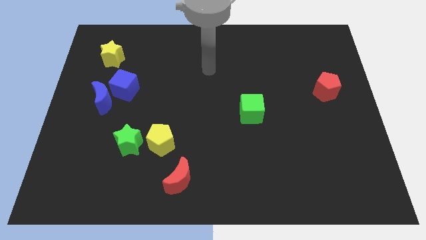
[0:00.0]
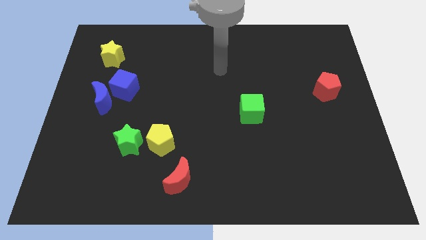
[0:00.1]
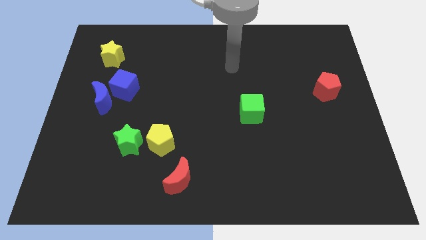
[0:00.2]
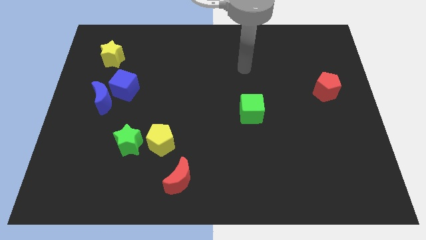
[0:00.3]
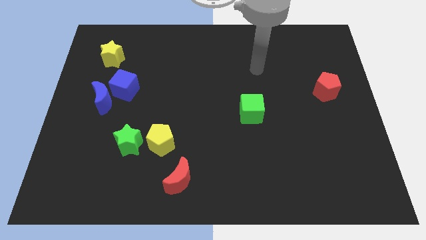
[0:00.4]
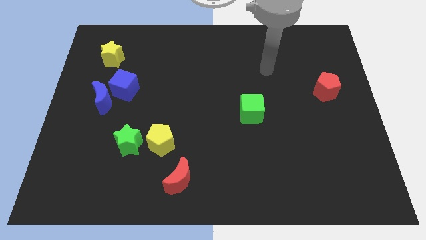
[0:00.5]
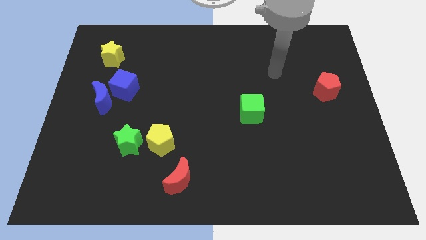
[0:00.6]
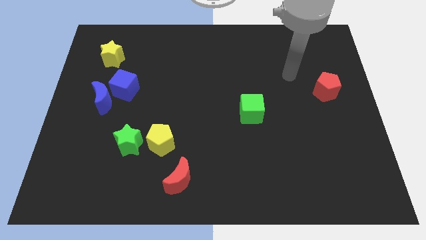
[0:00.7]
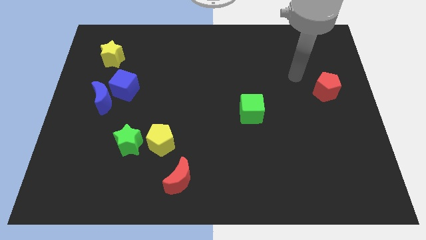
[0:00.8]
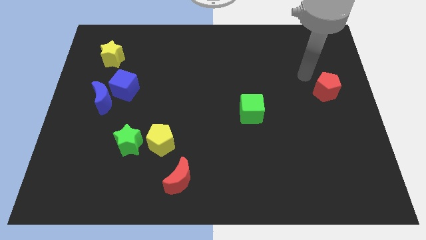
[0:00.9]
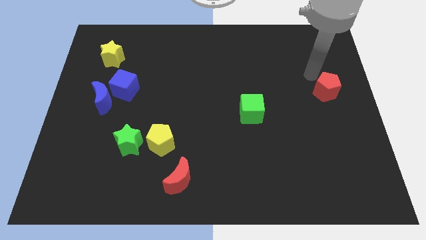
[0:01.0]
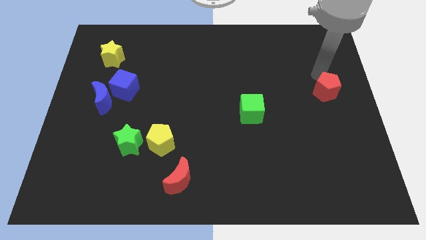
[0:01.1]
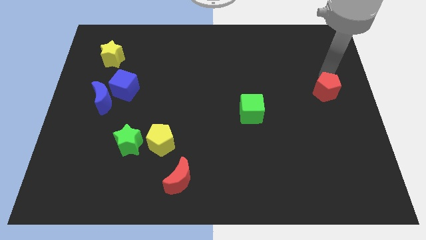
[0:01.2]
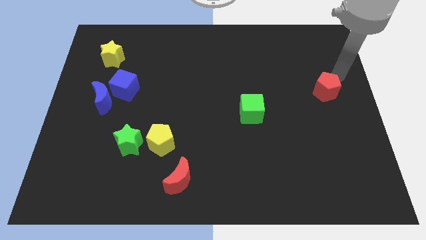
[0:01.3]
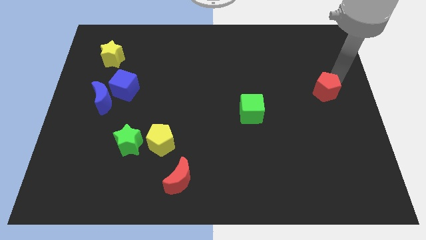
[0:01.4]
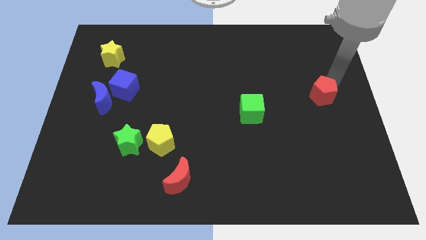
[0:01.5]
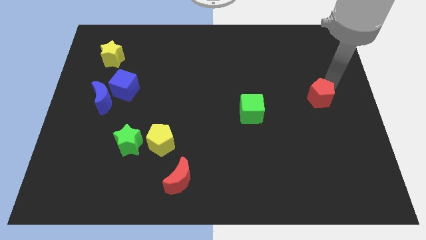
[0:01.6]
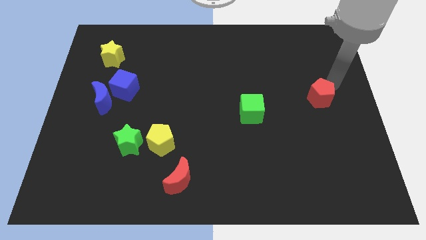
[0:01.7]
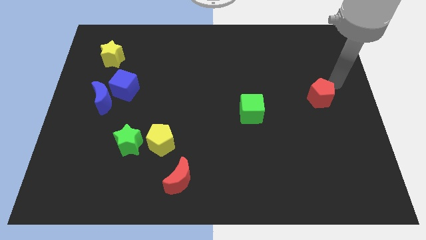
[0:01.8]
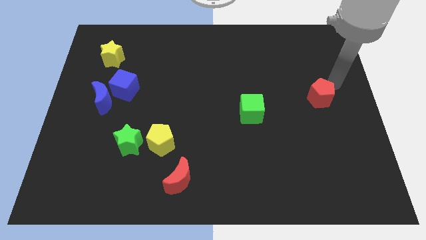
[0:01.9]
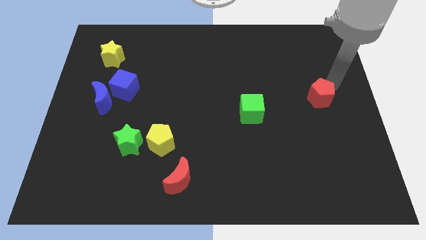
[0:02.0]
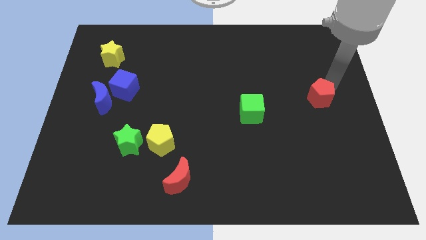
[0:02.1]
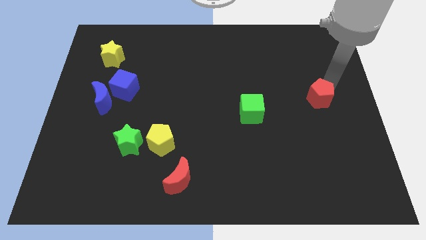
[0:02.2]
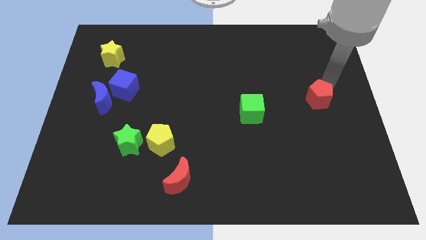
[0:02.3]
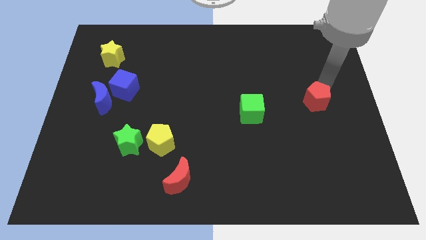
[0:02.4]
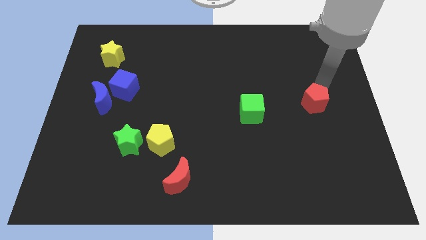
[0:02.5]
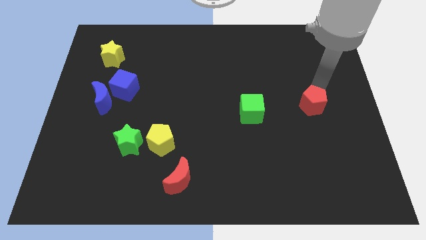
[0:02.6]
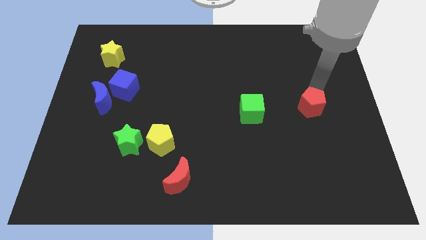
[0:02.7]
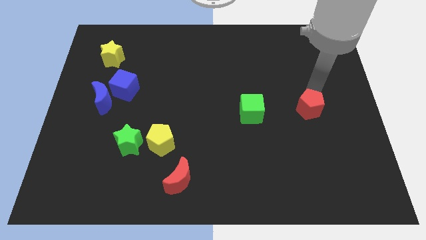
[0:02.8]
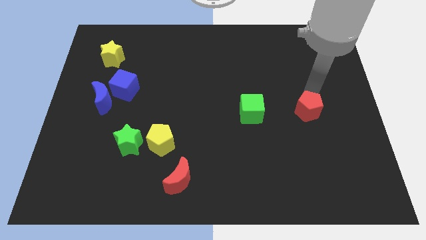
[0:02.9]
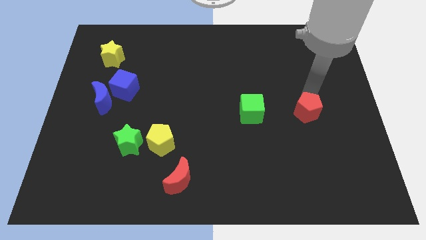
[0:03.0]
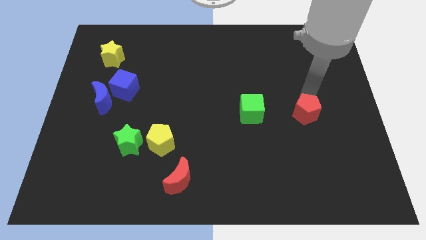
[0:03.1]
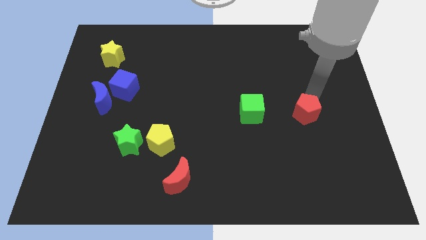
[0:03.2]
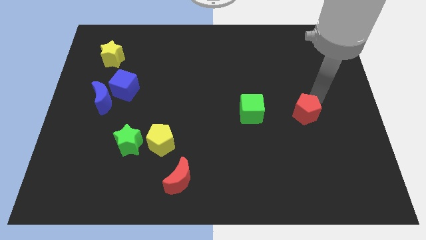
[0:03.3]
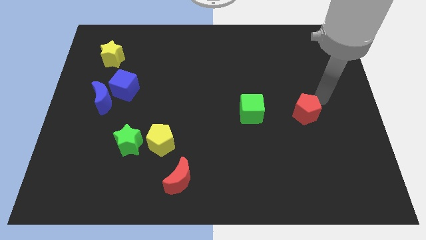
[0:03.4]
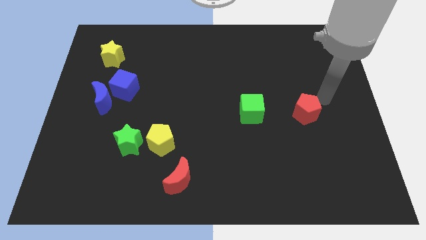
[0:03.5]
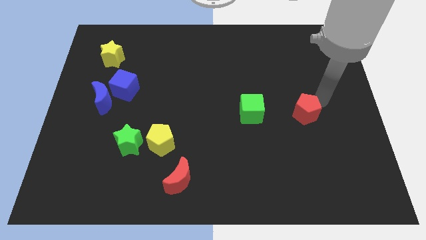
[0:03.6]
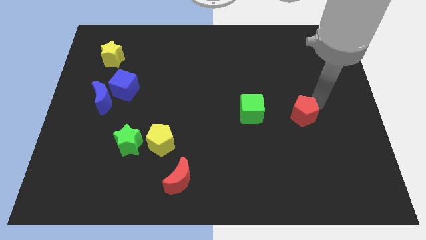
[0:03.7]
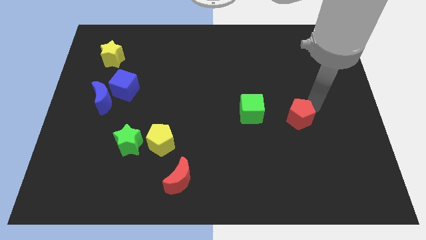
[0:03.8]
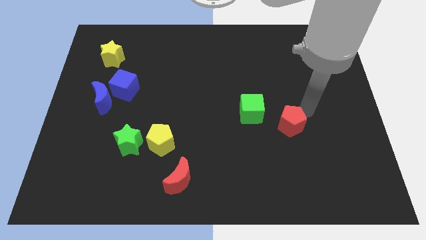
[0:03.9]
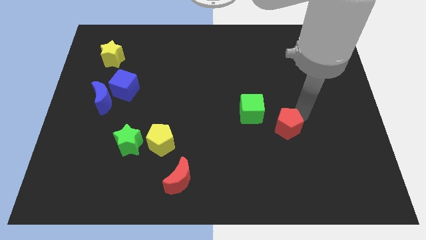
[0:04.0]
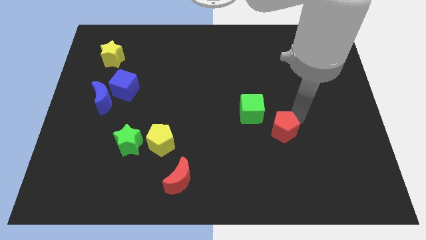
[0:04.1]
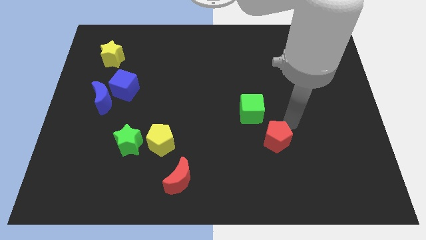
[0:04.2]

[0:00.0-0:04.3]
move the red pentagon down and then left

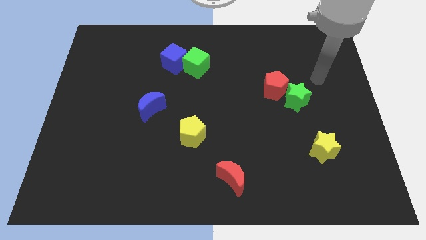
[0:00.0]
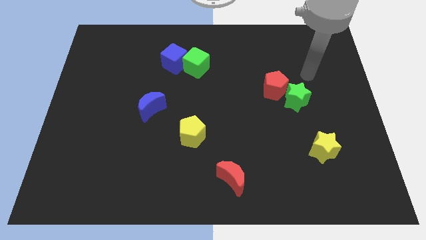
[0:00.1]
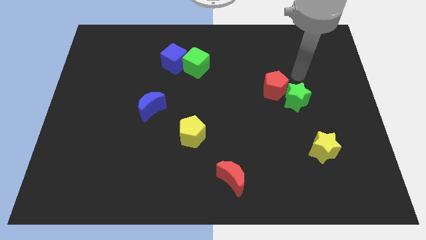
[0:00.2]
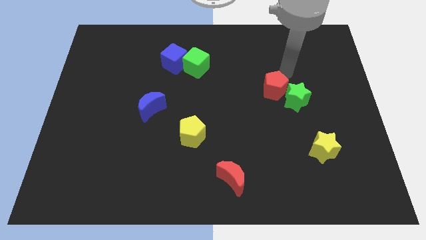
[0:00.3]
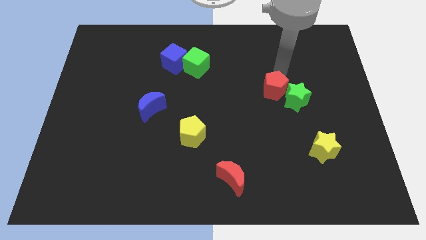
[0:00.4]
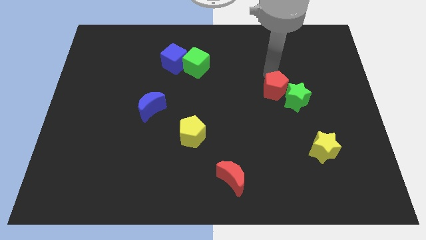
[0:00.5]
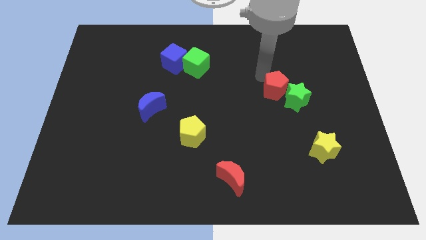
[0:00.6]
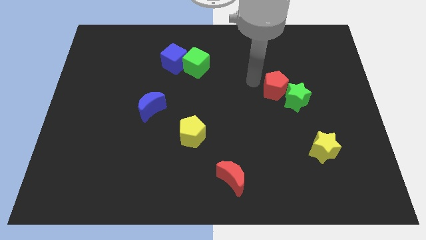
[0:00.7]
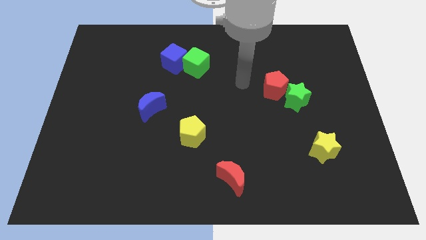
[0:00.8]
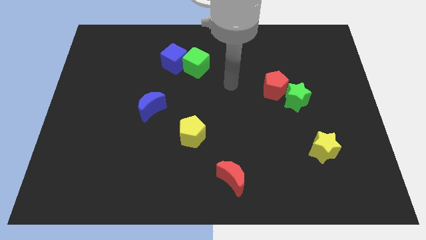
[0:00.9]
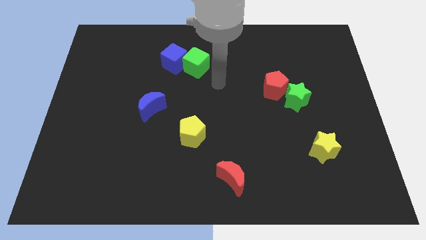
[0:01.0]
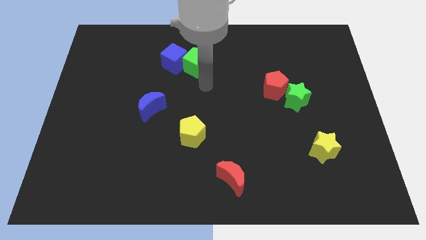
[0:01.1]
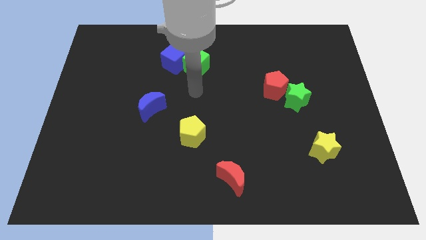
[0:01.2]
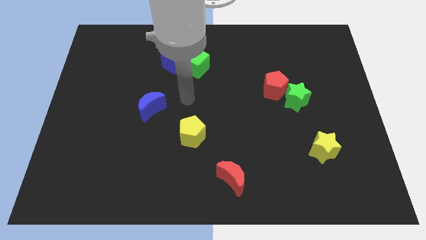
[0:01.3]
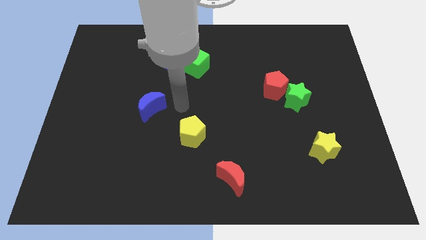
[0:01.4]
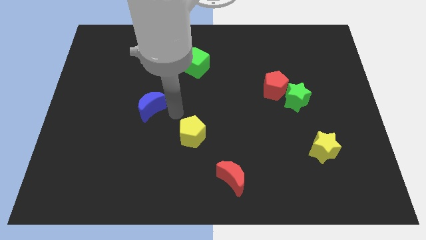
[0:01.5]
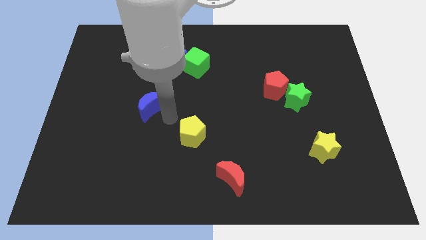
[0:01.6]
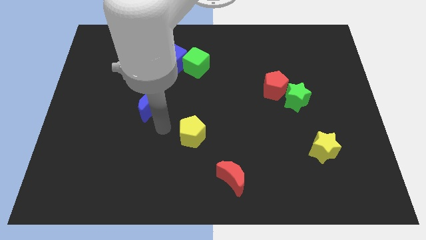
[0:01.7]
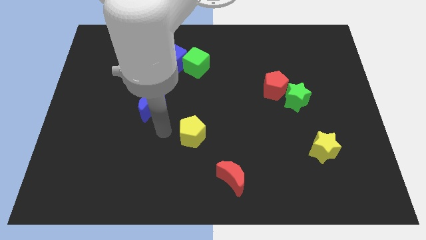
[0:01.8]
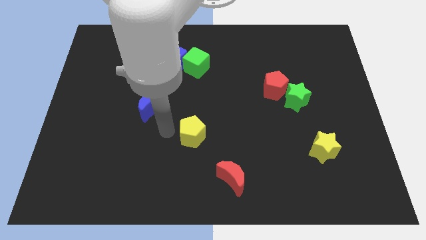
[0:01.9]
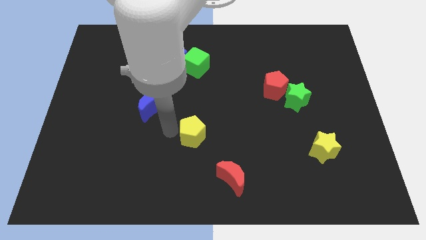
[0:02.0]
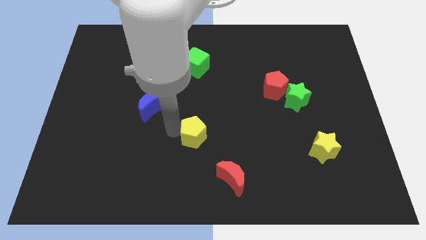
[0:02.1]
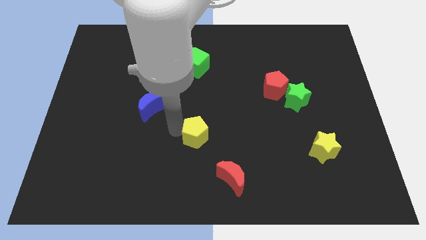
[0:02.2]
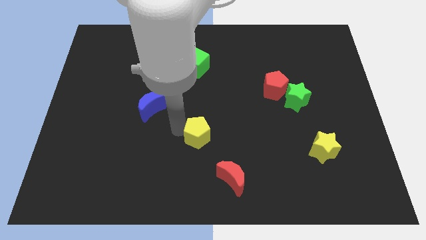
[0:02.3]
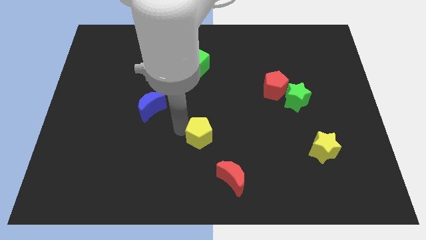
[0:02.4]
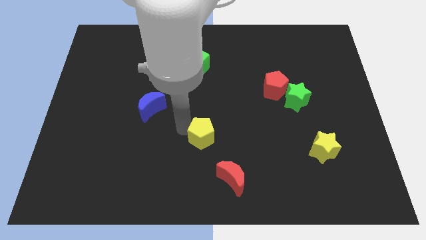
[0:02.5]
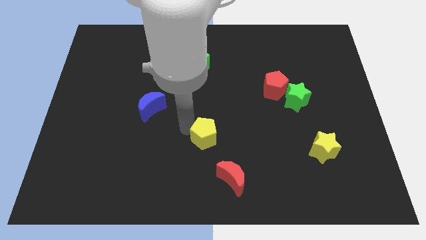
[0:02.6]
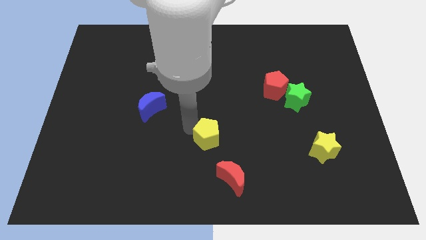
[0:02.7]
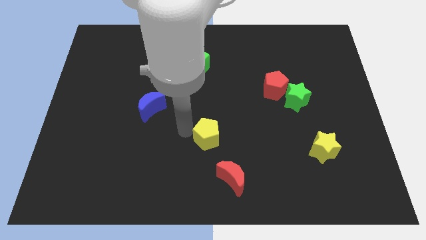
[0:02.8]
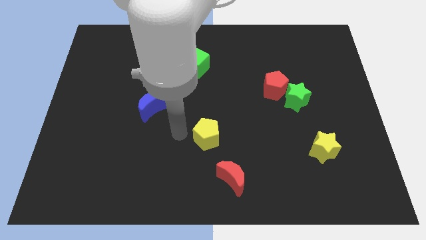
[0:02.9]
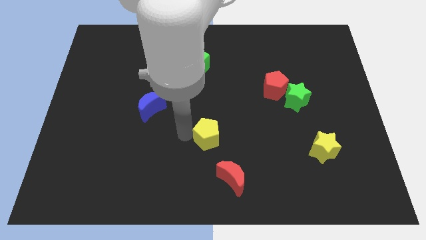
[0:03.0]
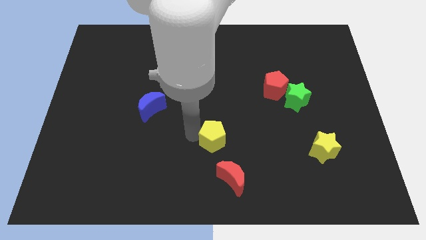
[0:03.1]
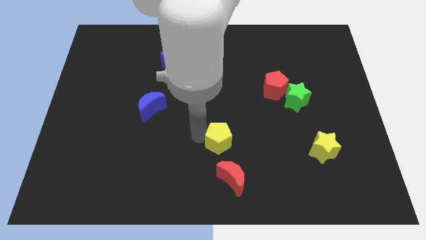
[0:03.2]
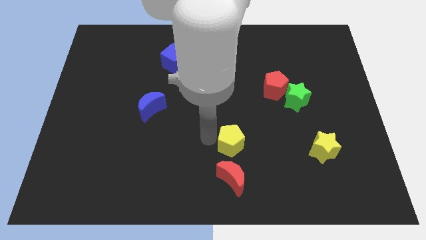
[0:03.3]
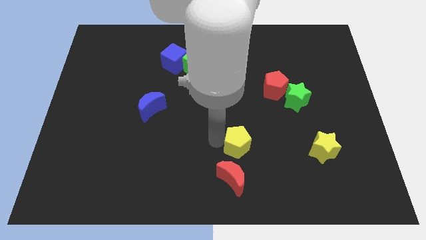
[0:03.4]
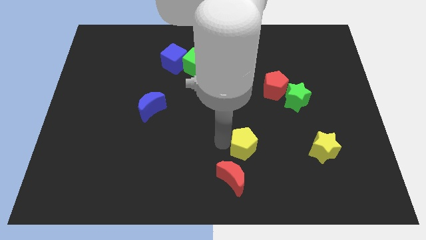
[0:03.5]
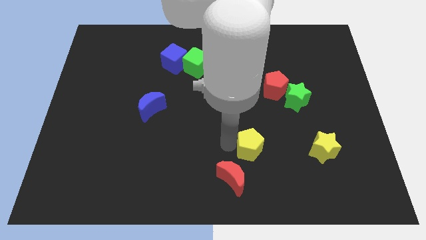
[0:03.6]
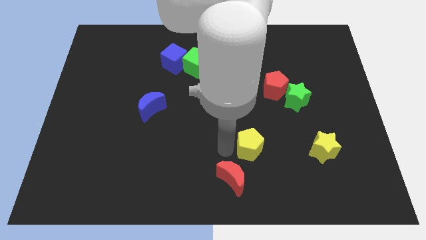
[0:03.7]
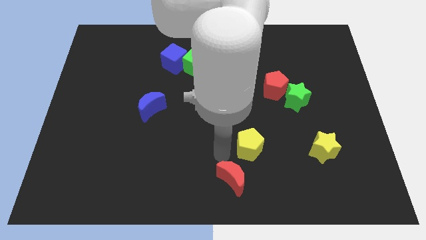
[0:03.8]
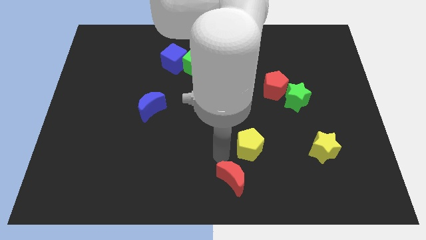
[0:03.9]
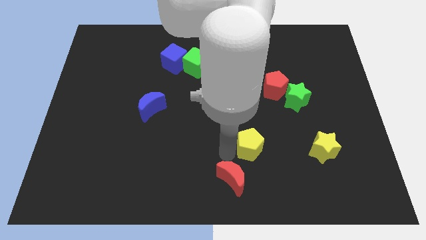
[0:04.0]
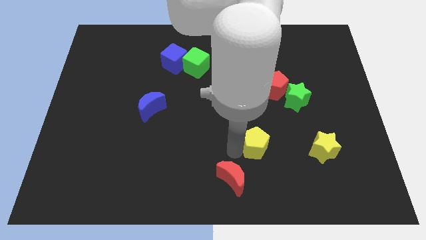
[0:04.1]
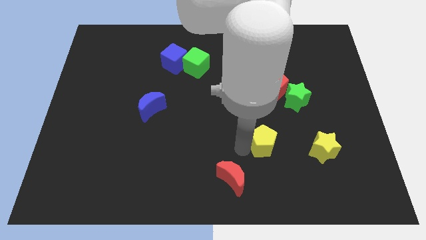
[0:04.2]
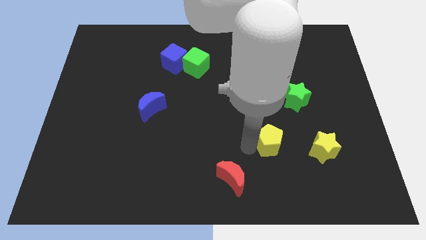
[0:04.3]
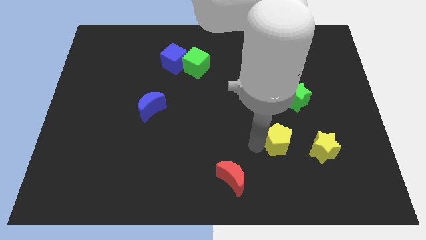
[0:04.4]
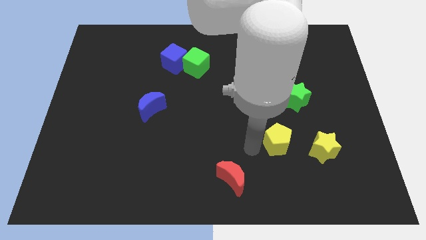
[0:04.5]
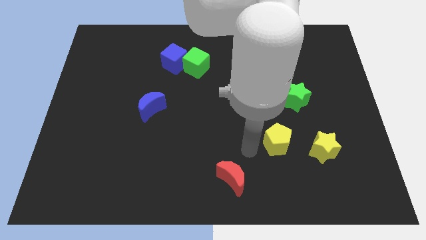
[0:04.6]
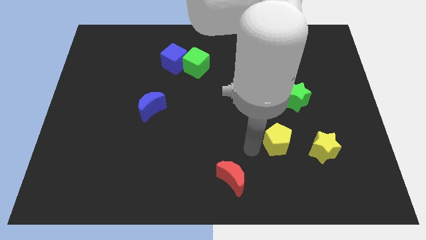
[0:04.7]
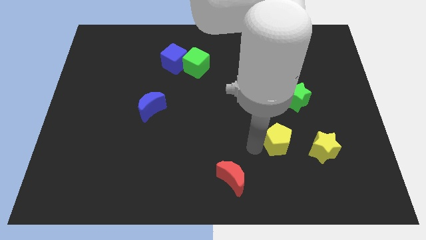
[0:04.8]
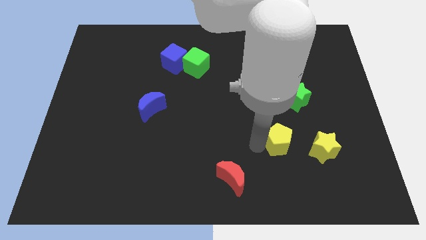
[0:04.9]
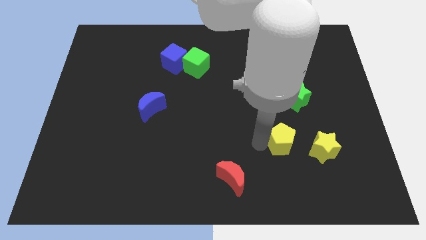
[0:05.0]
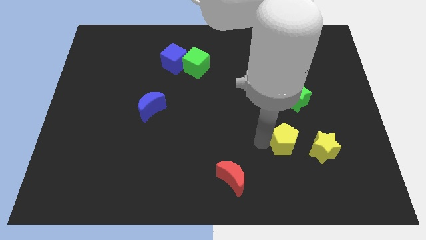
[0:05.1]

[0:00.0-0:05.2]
push the yellow pentagon right
